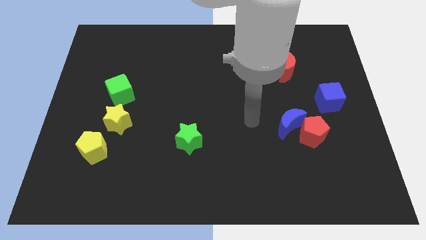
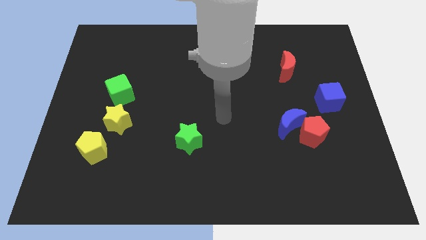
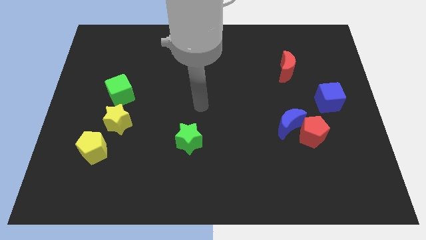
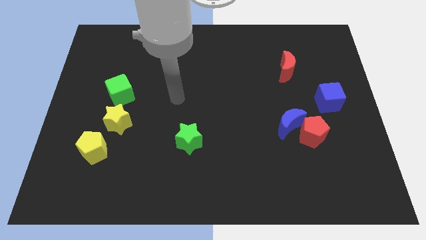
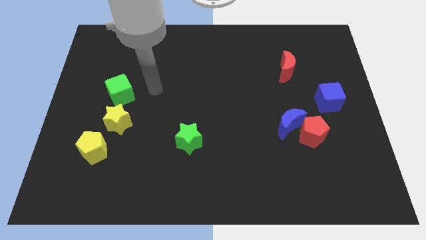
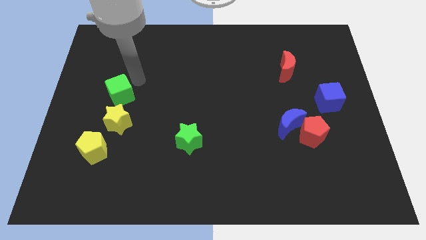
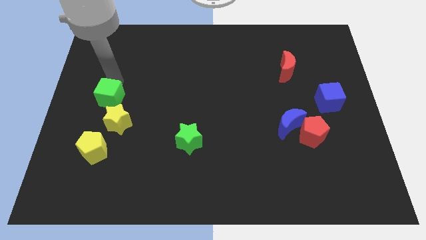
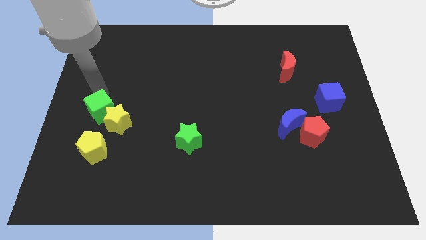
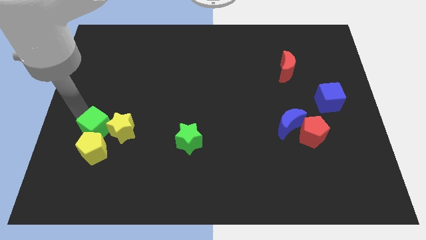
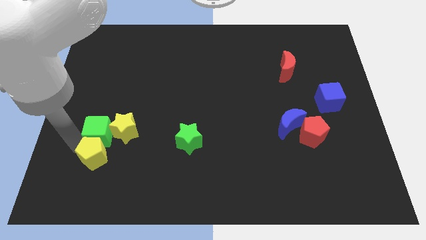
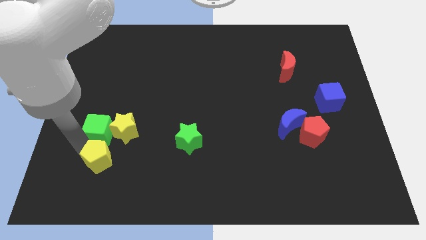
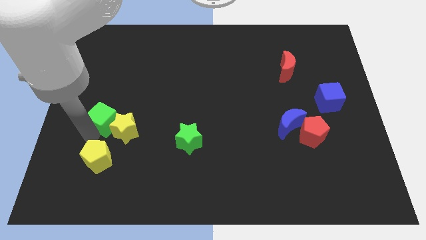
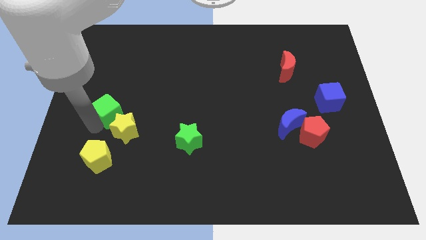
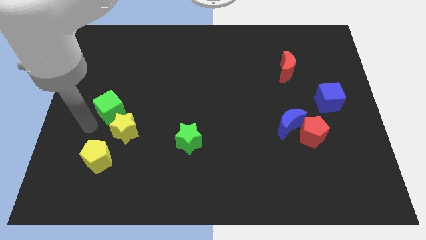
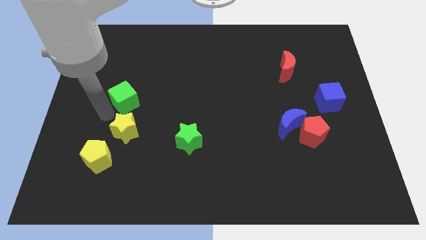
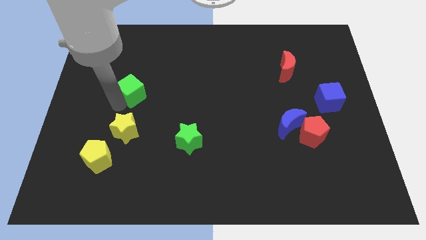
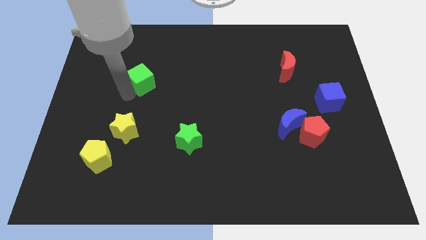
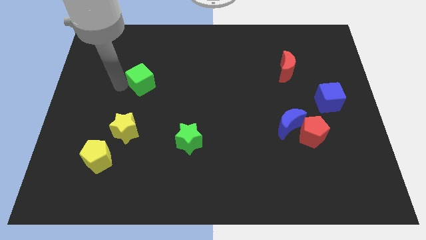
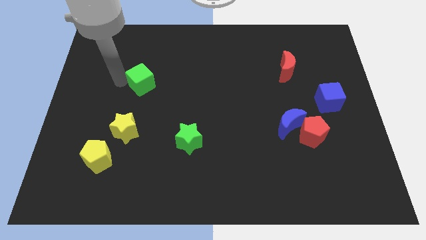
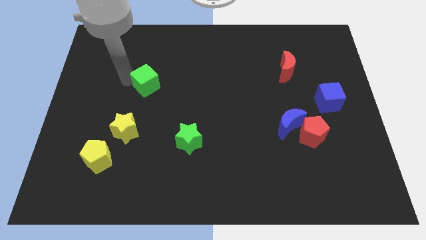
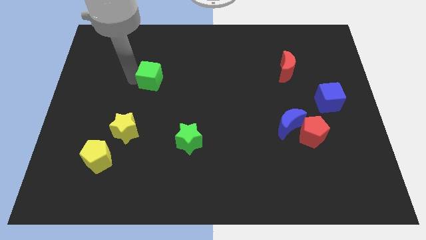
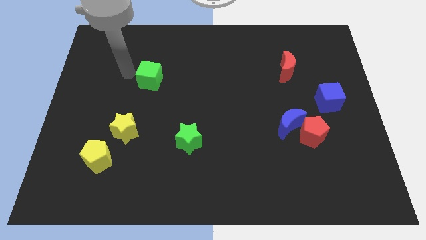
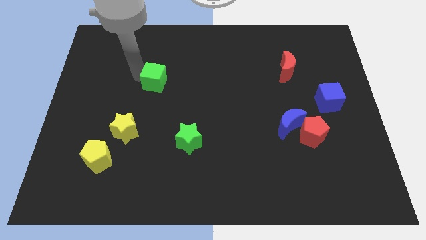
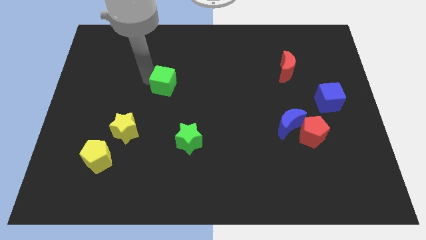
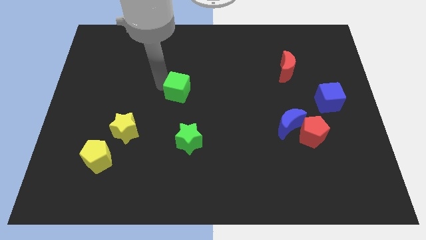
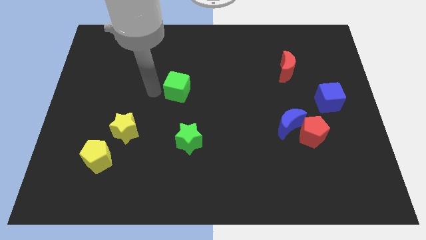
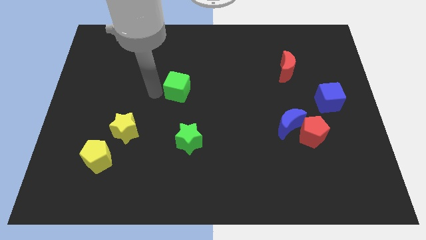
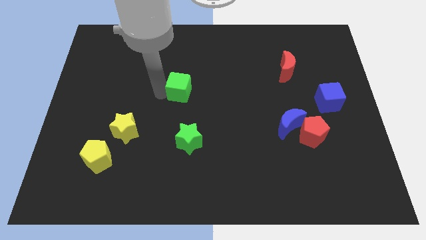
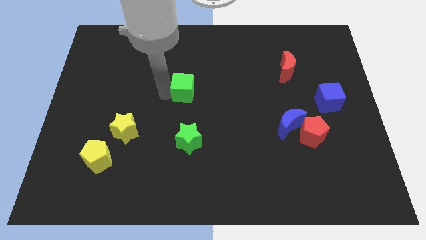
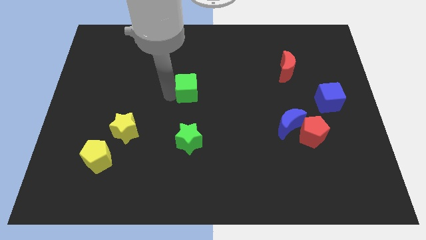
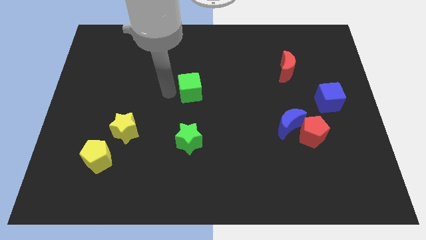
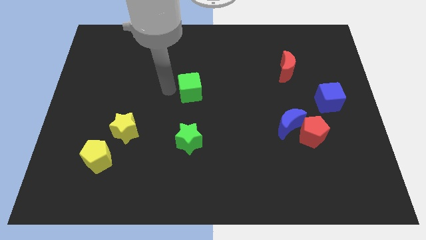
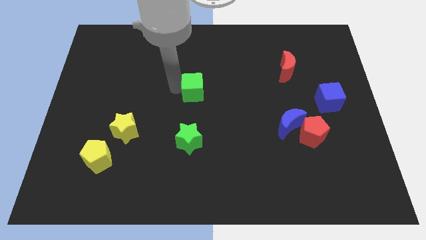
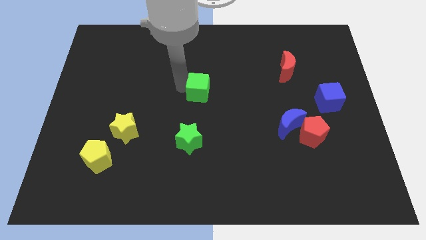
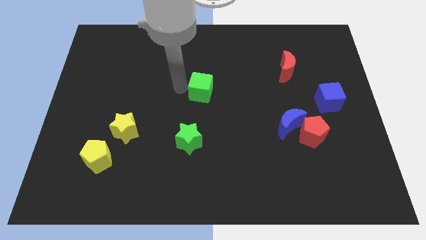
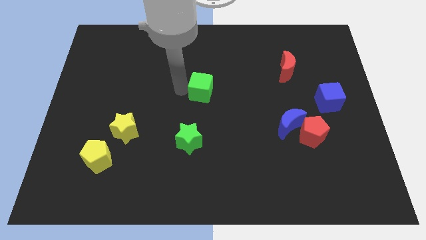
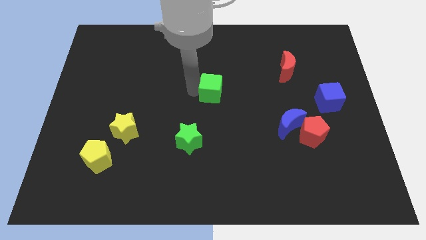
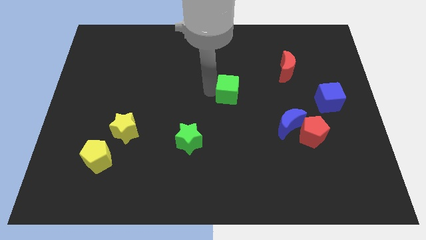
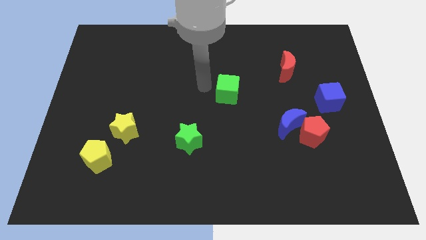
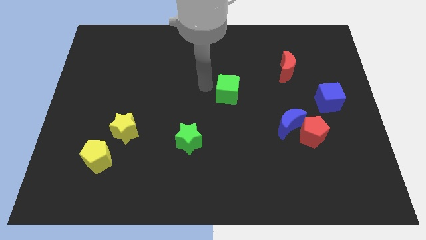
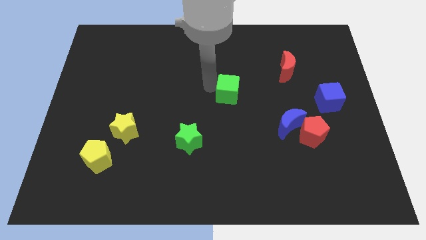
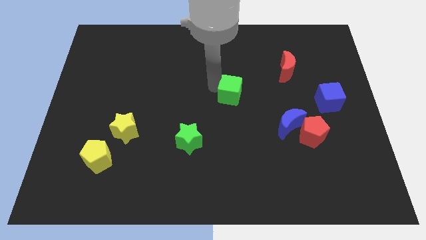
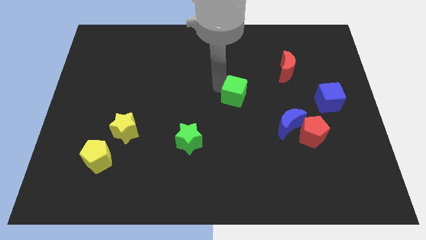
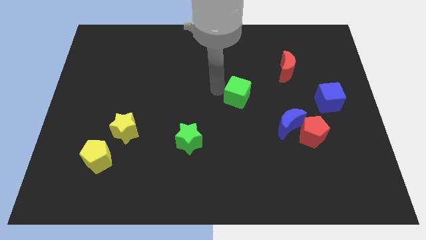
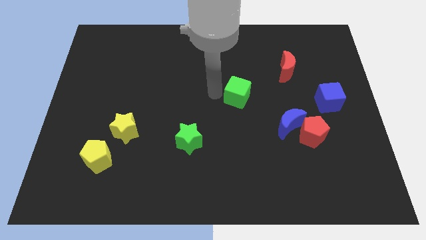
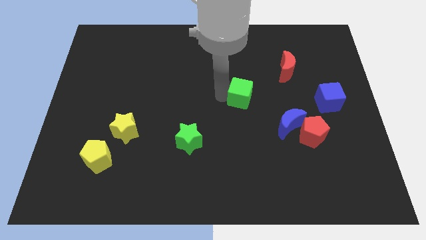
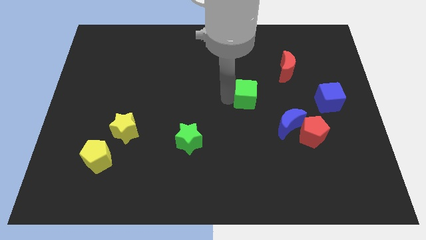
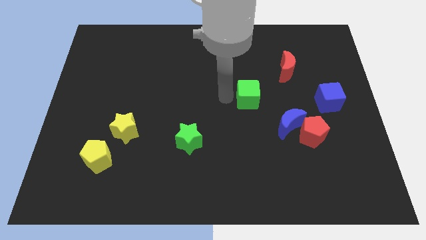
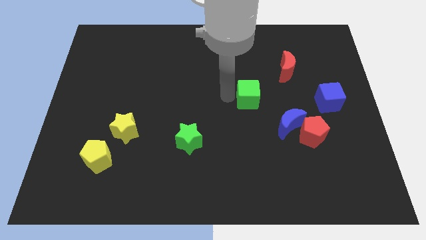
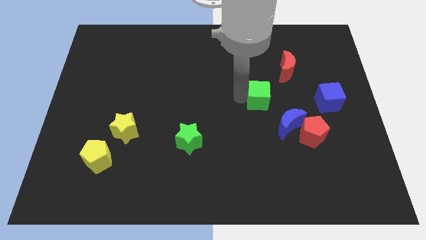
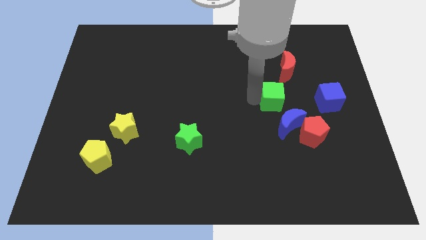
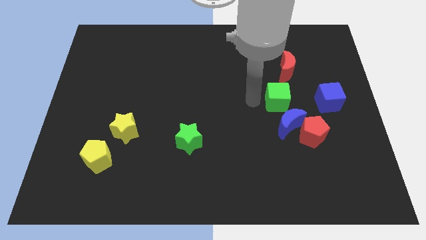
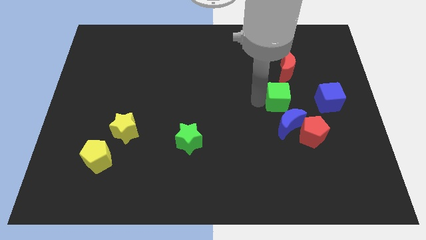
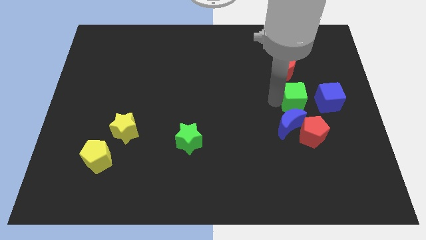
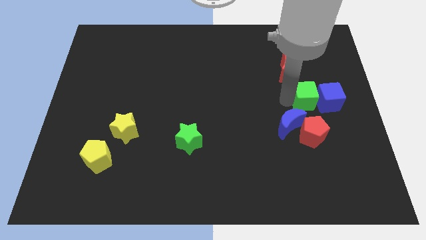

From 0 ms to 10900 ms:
move the green cube to the blue cube

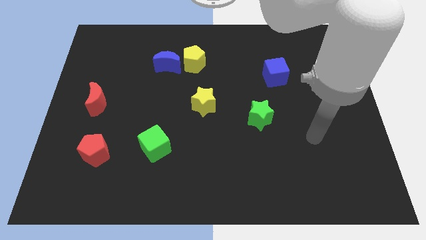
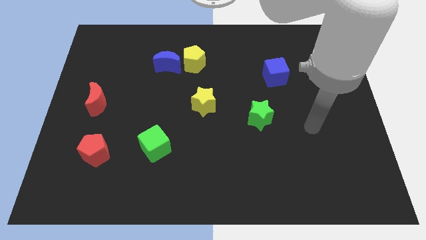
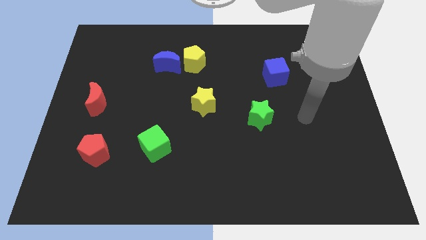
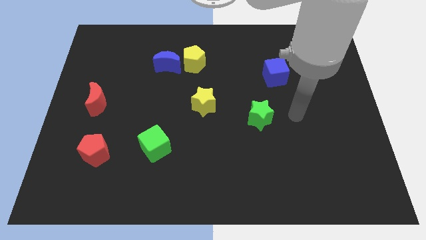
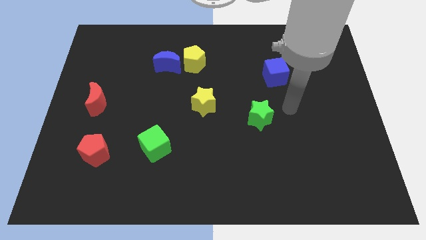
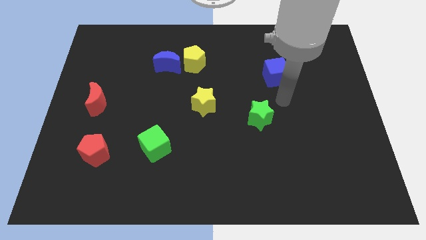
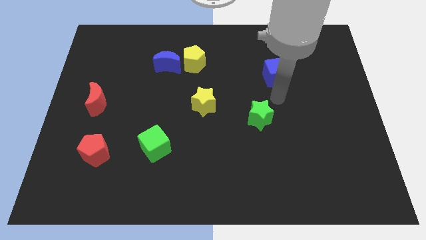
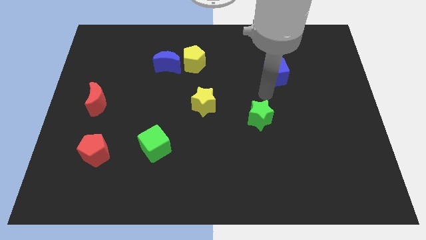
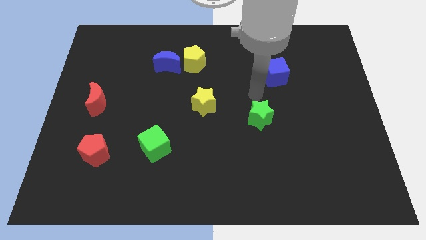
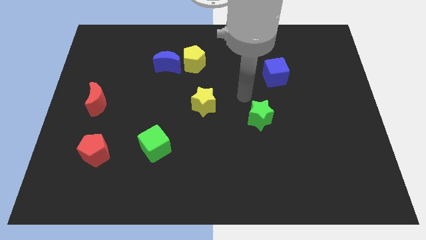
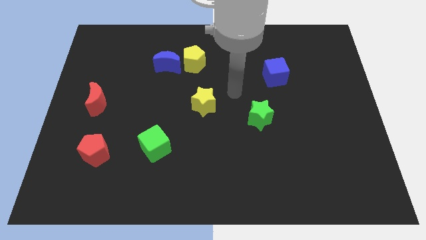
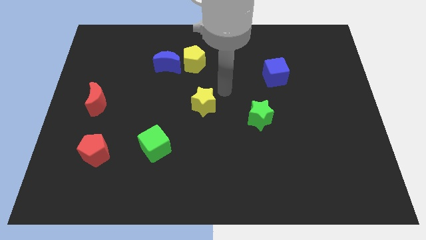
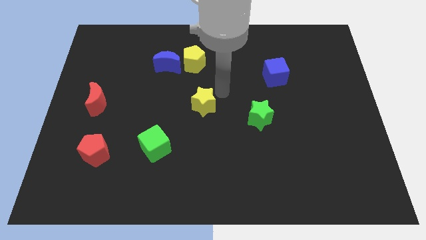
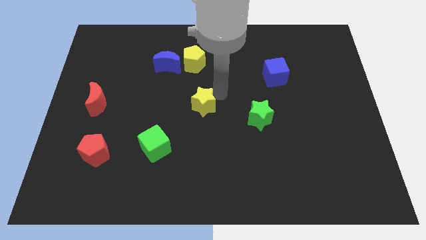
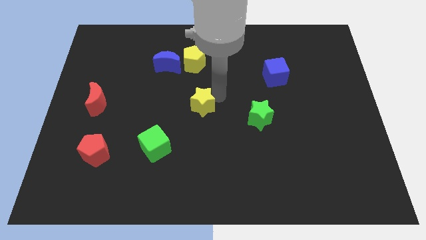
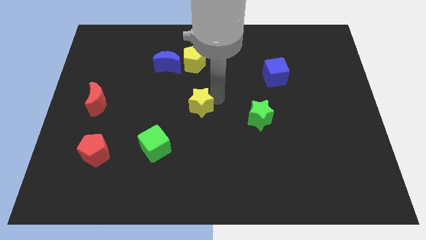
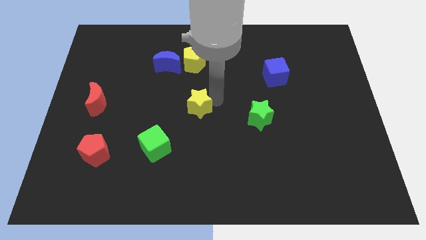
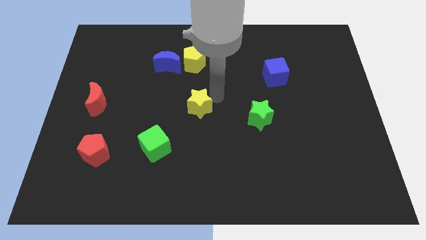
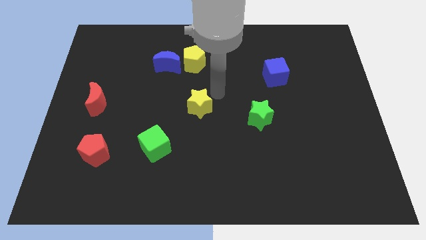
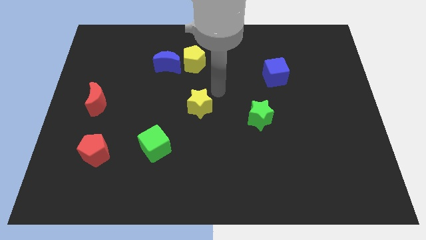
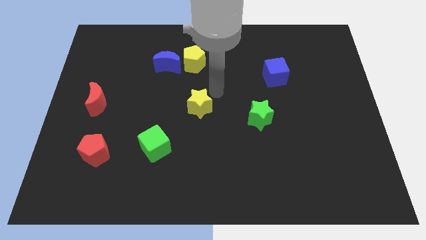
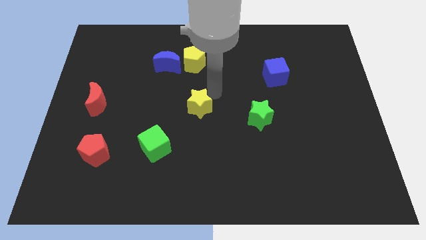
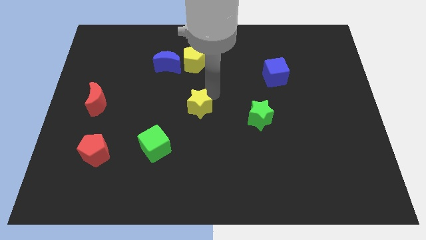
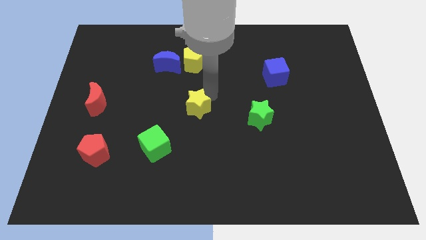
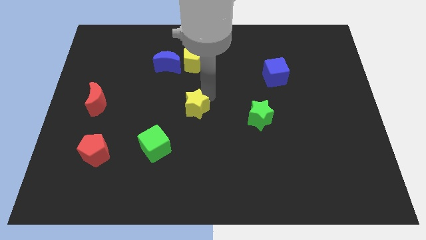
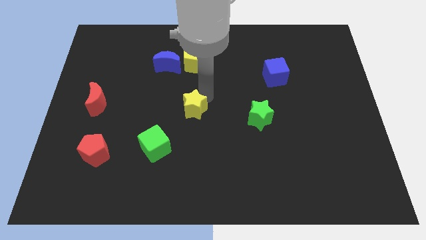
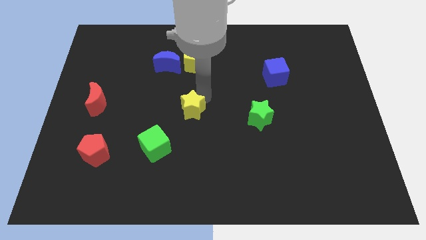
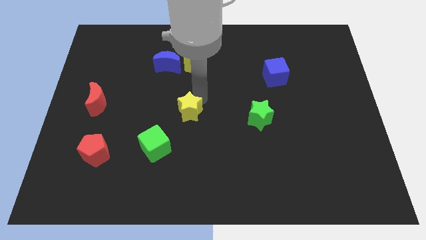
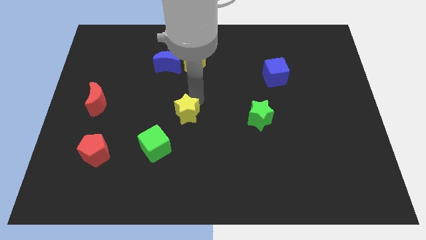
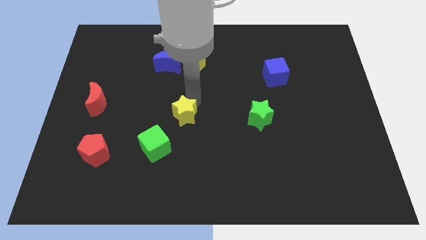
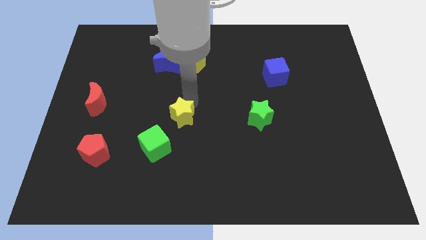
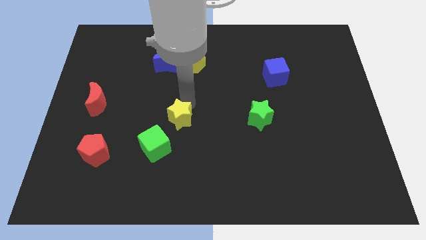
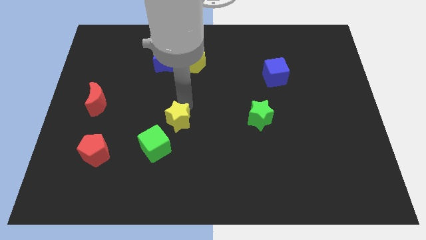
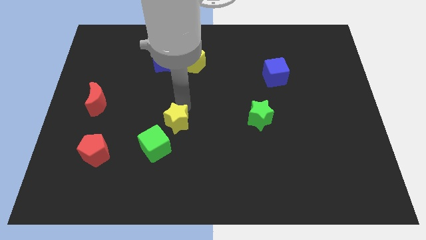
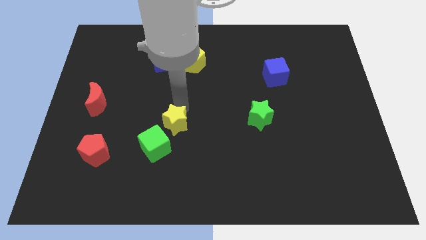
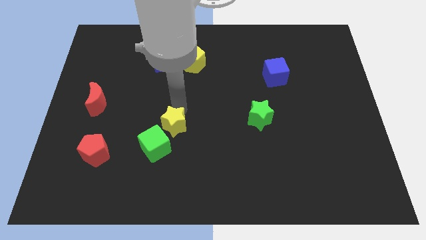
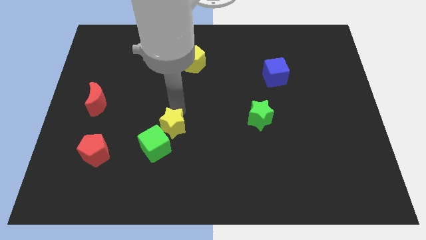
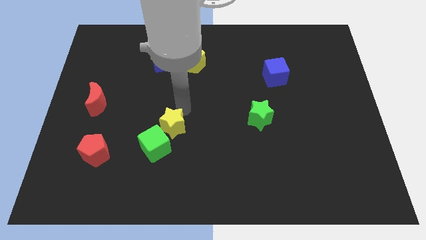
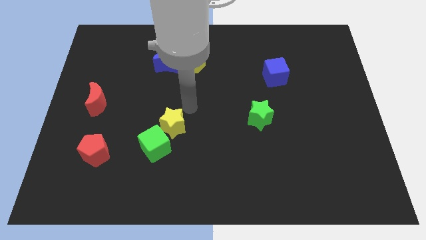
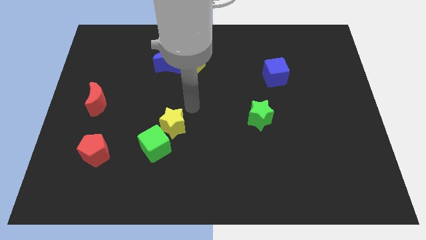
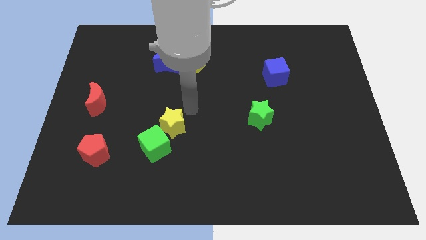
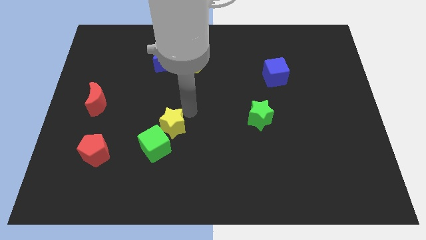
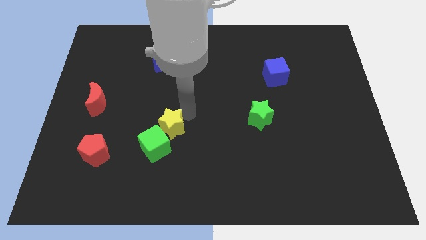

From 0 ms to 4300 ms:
move the yellow star close to the green cube
